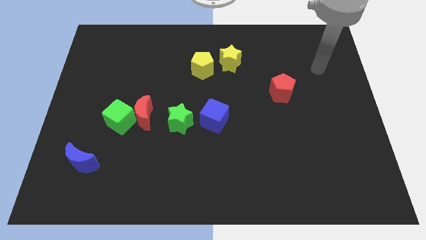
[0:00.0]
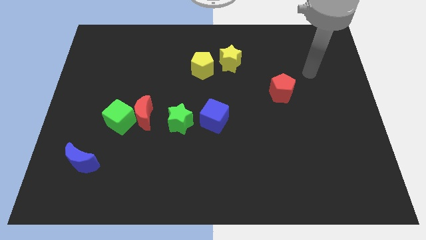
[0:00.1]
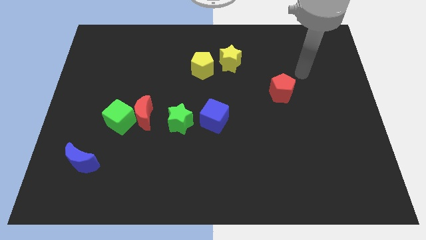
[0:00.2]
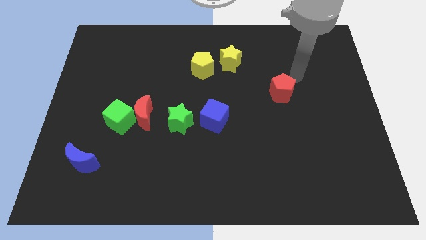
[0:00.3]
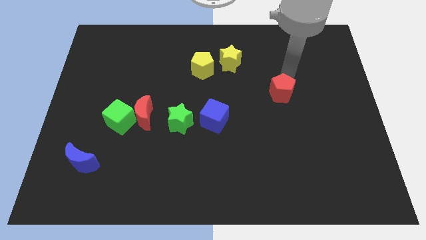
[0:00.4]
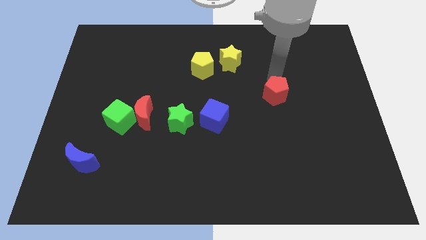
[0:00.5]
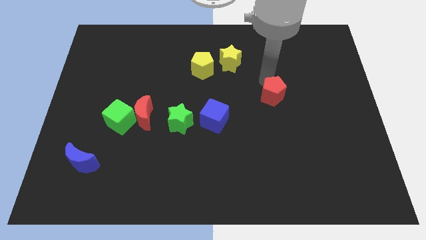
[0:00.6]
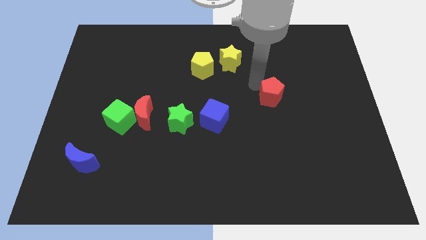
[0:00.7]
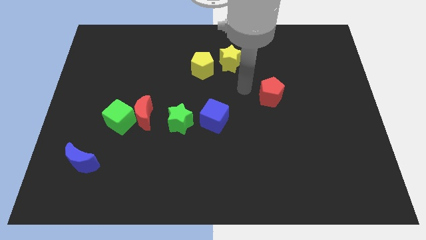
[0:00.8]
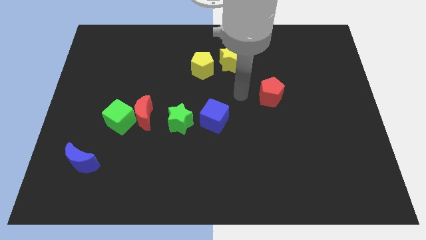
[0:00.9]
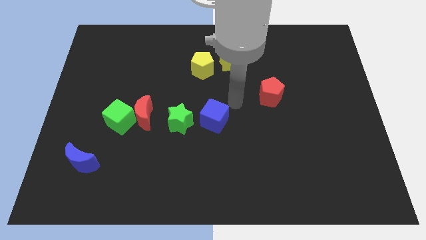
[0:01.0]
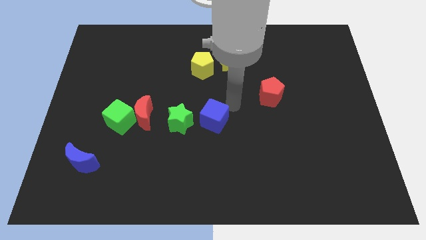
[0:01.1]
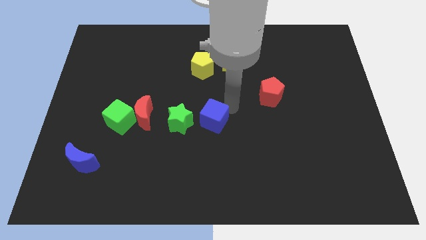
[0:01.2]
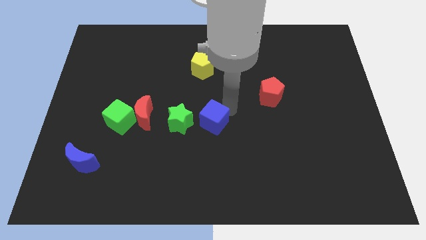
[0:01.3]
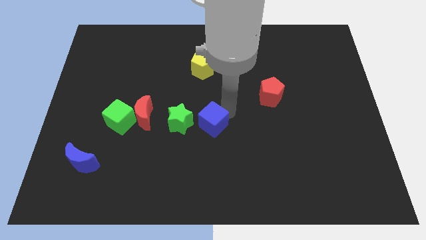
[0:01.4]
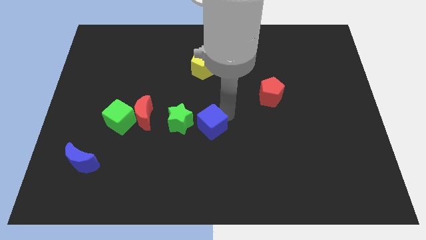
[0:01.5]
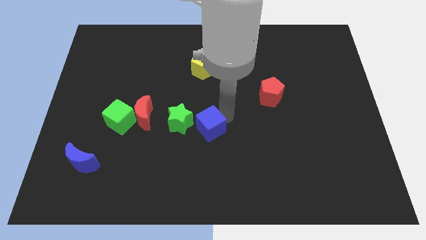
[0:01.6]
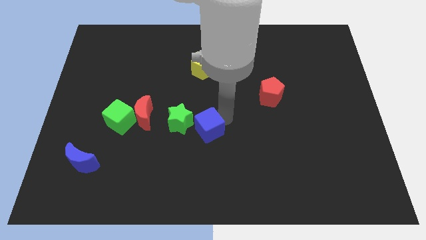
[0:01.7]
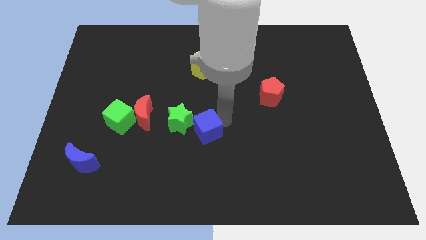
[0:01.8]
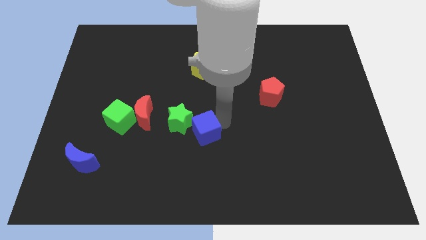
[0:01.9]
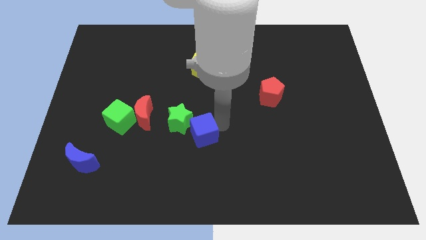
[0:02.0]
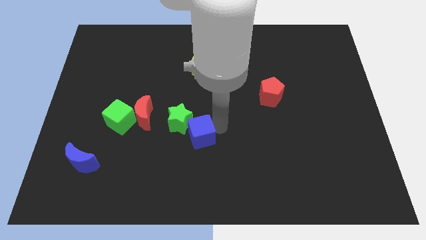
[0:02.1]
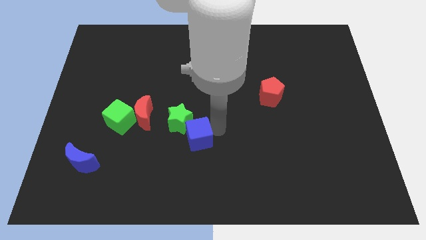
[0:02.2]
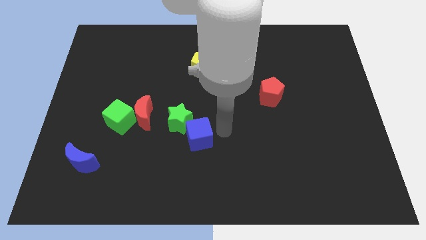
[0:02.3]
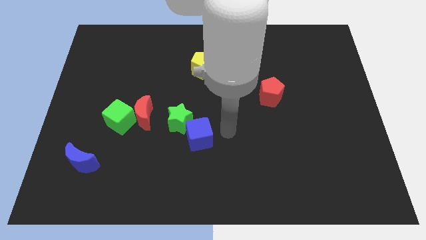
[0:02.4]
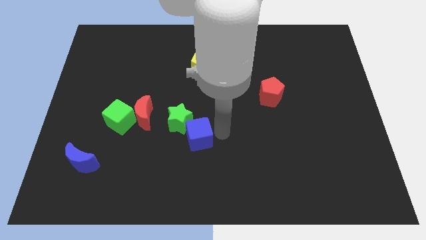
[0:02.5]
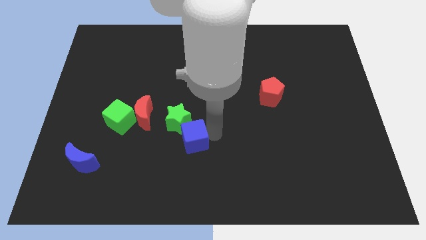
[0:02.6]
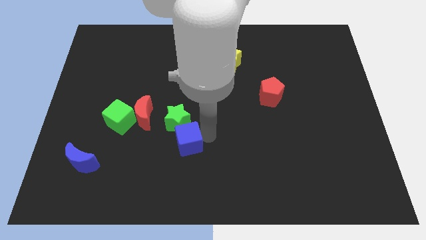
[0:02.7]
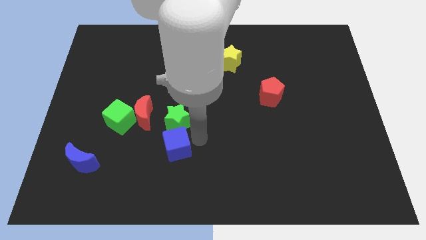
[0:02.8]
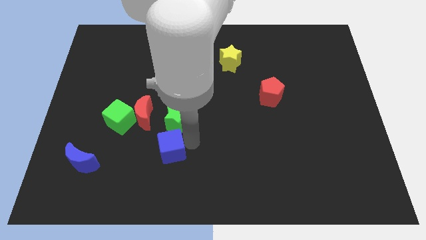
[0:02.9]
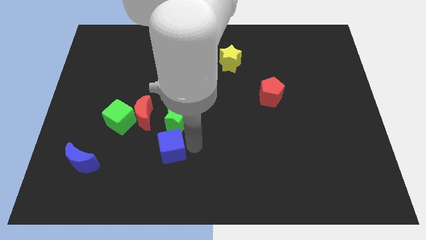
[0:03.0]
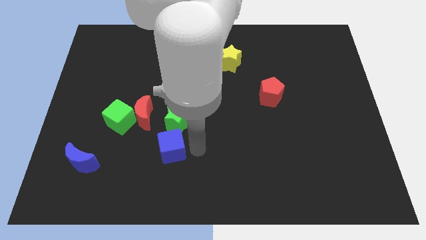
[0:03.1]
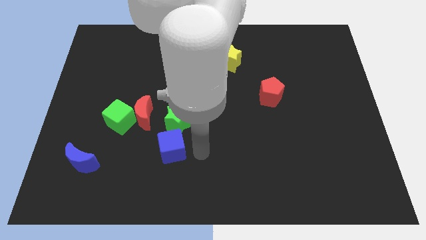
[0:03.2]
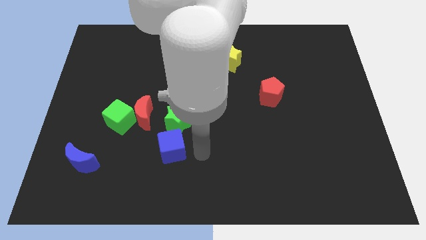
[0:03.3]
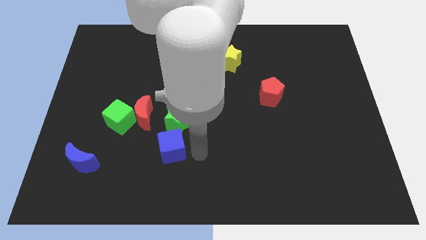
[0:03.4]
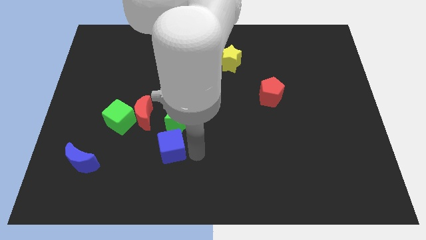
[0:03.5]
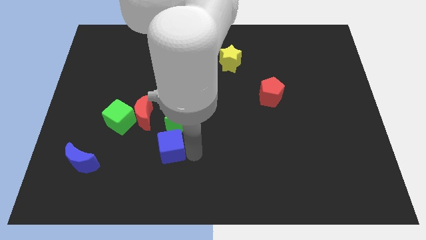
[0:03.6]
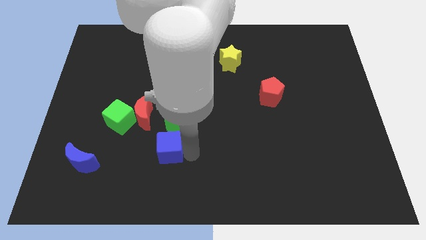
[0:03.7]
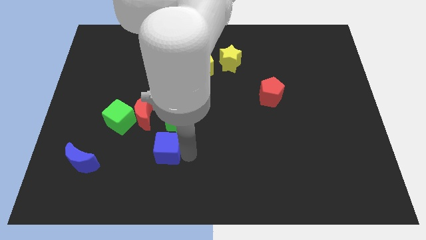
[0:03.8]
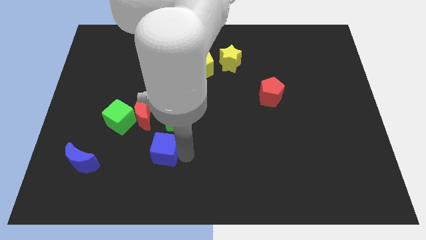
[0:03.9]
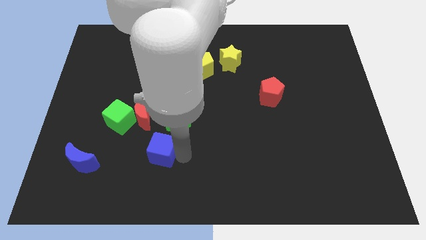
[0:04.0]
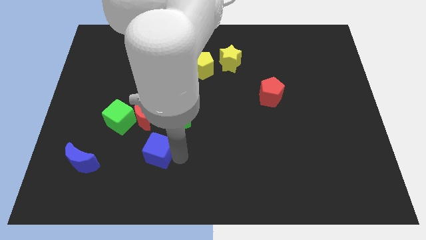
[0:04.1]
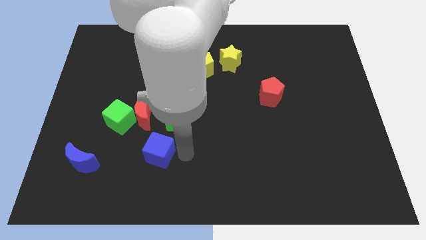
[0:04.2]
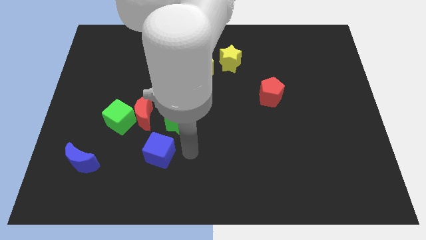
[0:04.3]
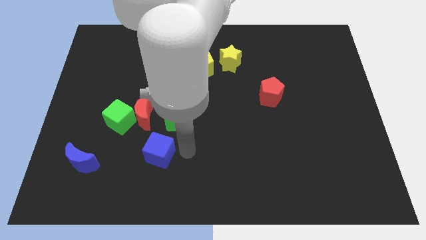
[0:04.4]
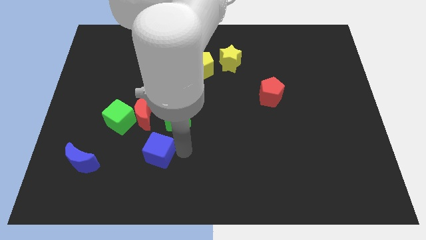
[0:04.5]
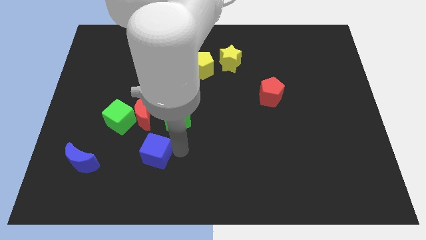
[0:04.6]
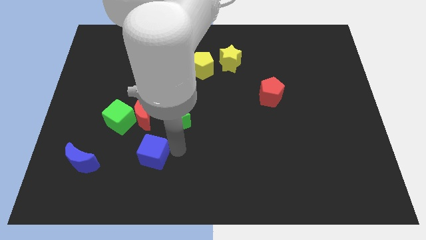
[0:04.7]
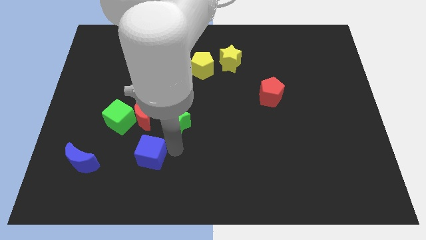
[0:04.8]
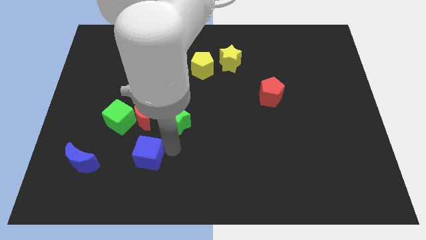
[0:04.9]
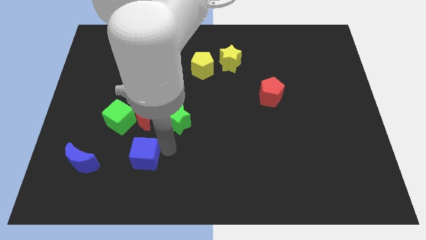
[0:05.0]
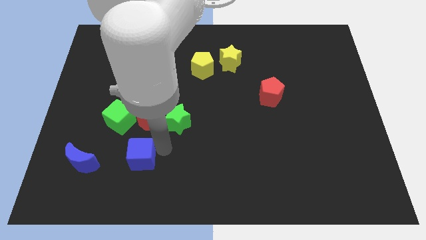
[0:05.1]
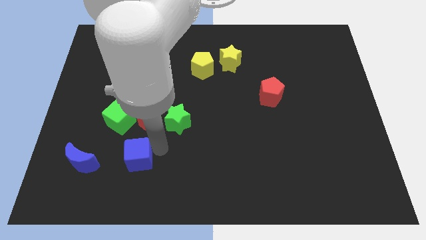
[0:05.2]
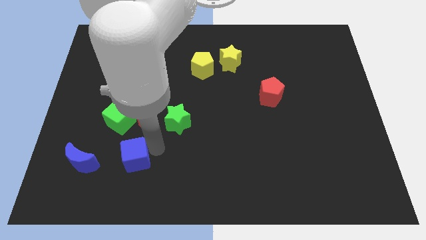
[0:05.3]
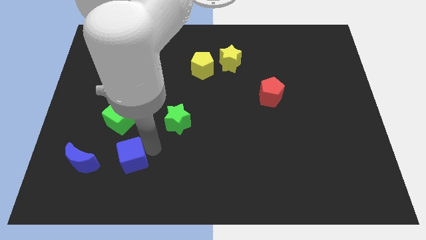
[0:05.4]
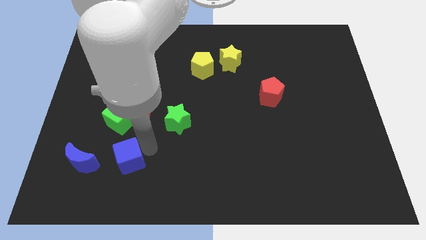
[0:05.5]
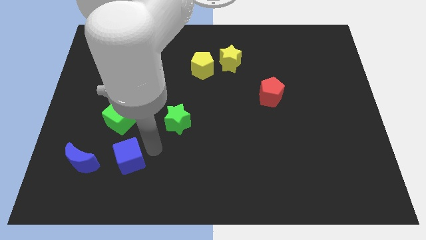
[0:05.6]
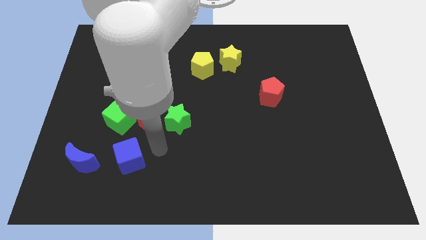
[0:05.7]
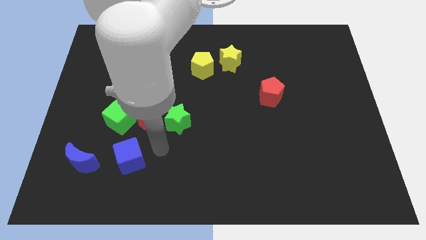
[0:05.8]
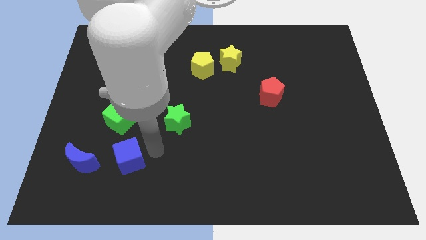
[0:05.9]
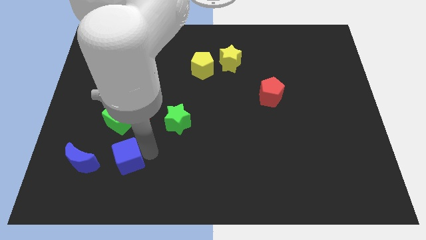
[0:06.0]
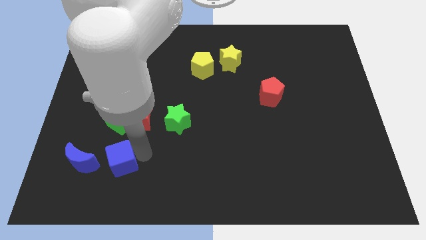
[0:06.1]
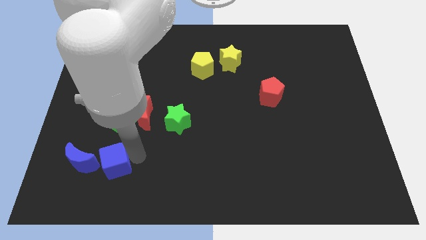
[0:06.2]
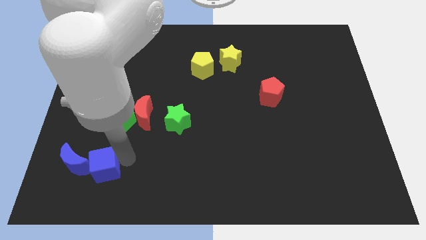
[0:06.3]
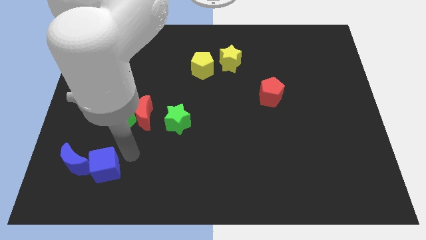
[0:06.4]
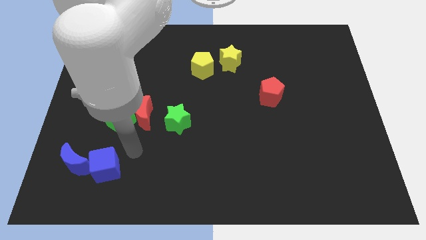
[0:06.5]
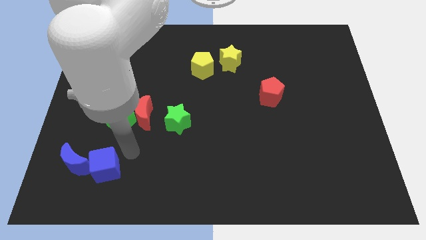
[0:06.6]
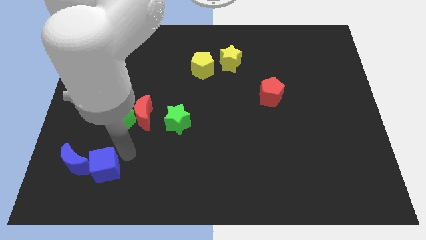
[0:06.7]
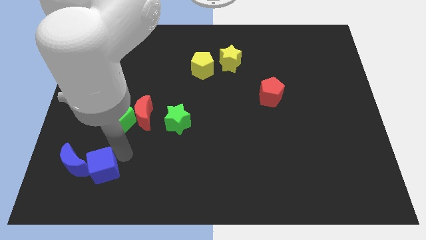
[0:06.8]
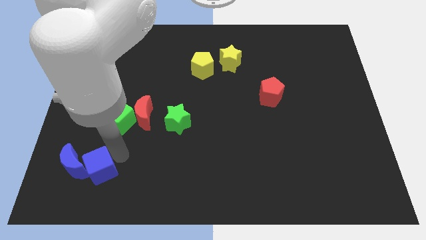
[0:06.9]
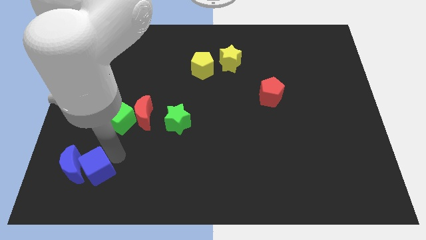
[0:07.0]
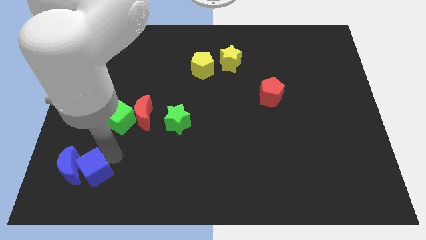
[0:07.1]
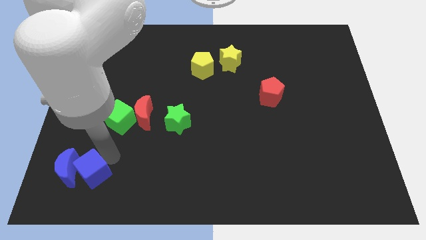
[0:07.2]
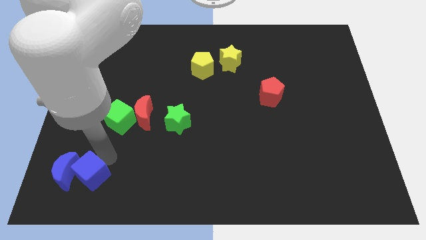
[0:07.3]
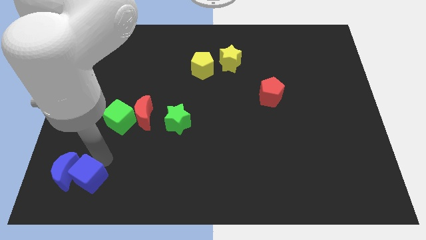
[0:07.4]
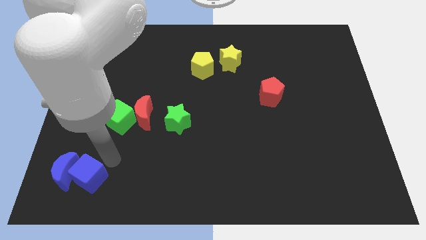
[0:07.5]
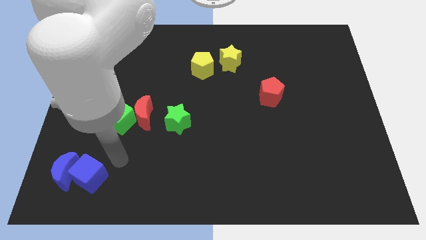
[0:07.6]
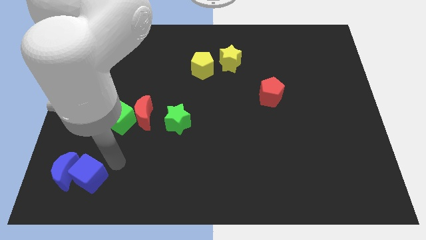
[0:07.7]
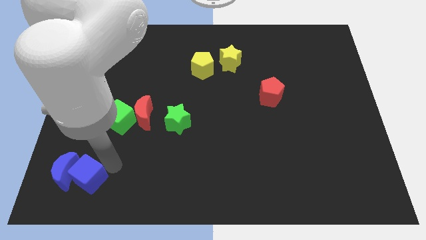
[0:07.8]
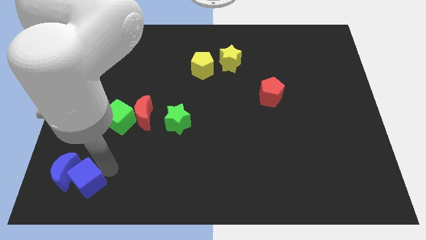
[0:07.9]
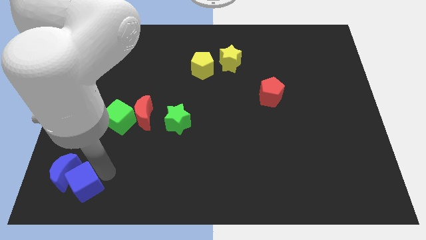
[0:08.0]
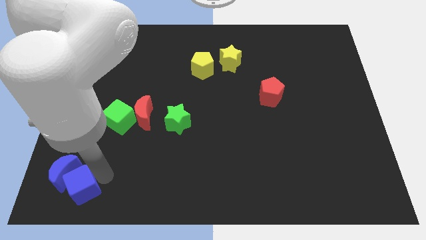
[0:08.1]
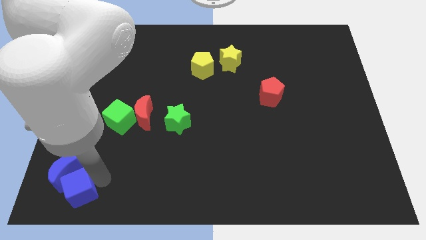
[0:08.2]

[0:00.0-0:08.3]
move the blue cube to the bottom left
